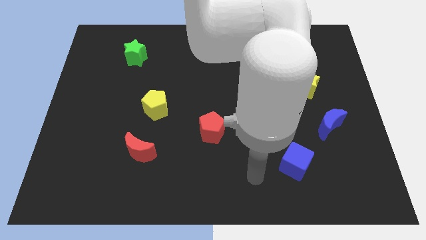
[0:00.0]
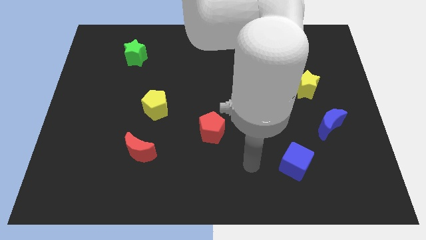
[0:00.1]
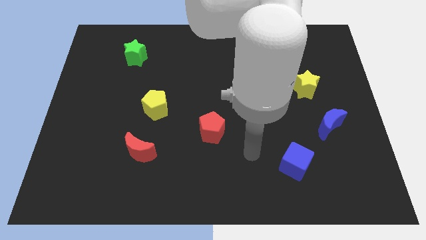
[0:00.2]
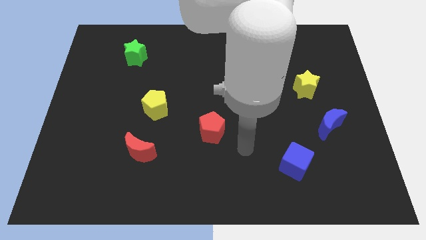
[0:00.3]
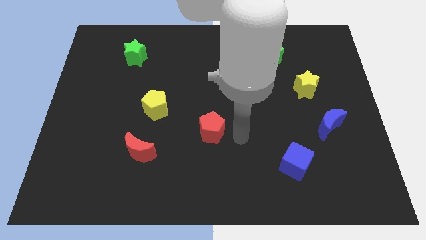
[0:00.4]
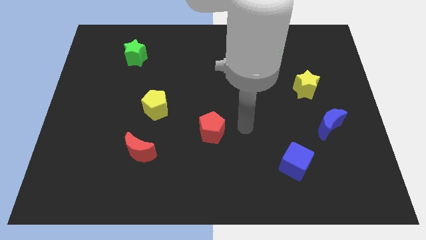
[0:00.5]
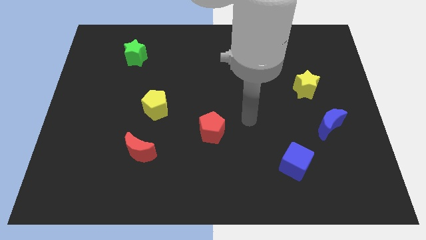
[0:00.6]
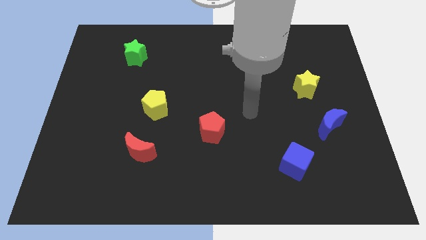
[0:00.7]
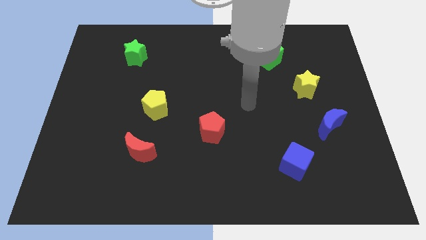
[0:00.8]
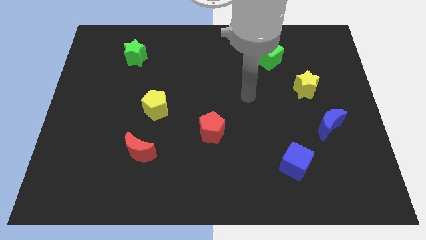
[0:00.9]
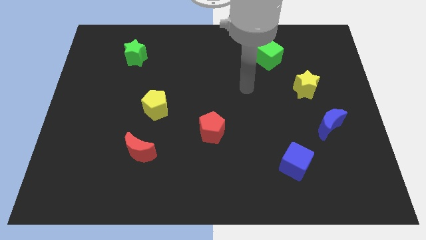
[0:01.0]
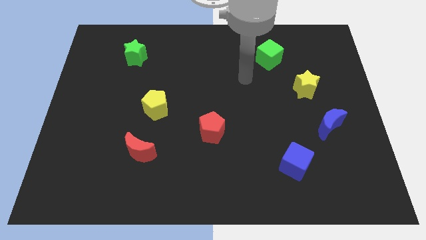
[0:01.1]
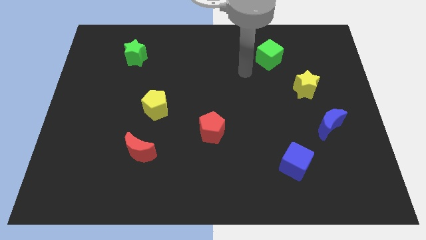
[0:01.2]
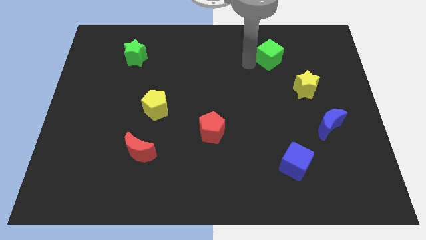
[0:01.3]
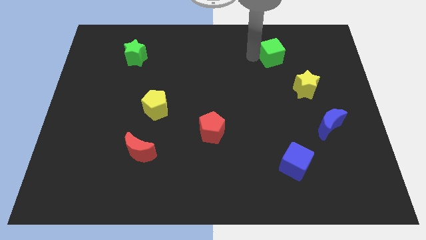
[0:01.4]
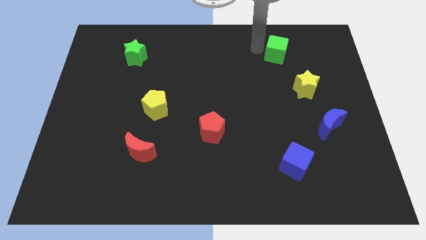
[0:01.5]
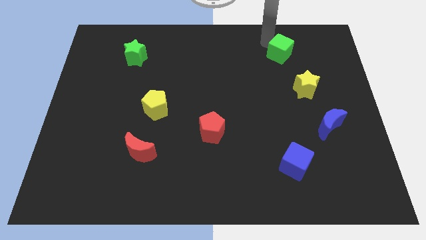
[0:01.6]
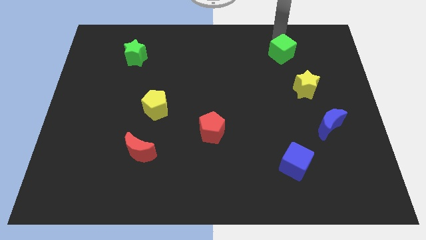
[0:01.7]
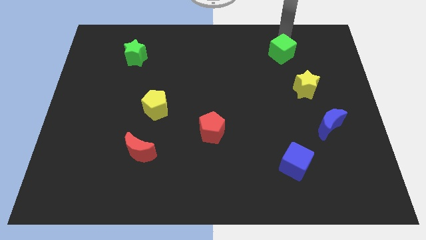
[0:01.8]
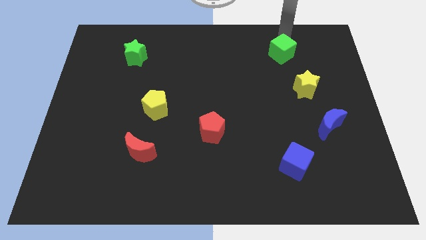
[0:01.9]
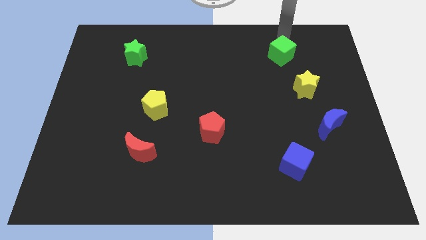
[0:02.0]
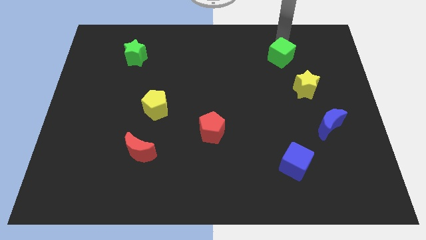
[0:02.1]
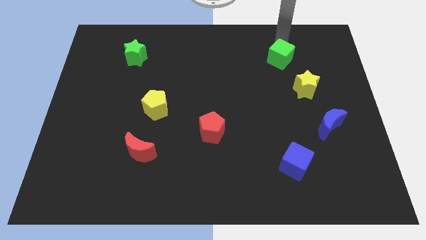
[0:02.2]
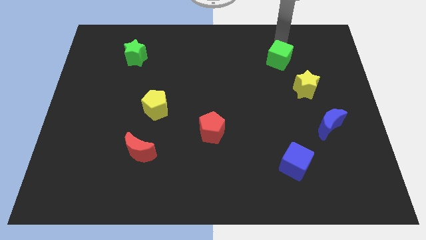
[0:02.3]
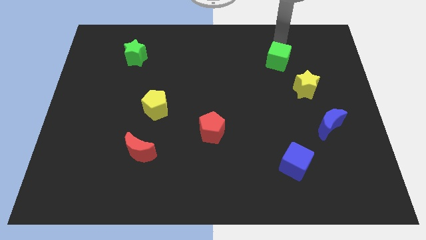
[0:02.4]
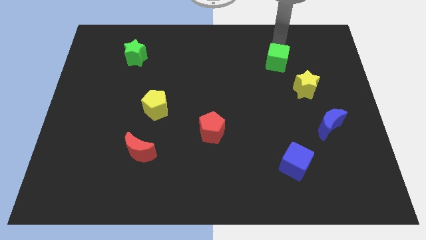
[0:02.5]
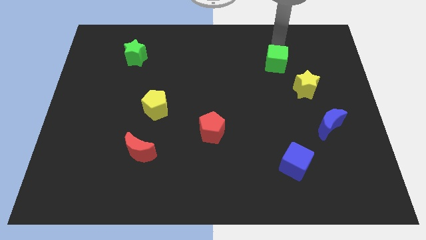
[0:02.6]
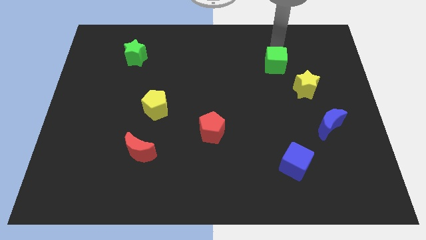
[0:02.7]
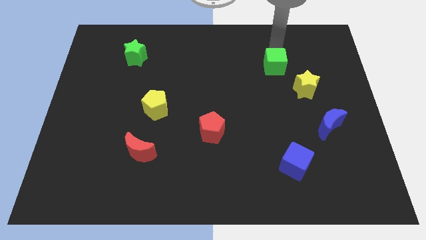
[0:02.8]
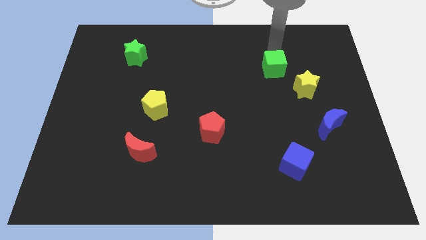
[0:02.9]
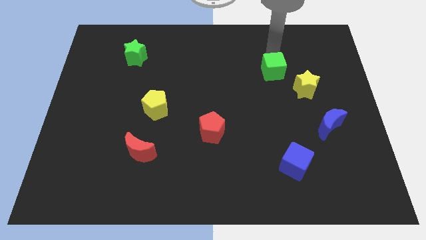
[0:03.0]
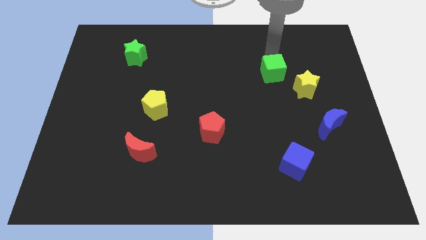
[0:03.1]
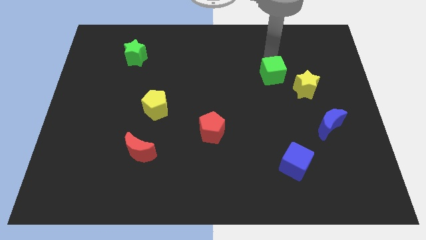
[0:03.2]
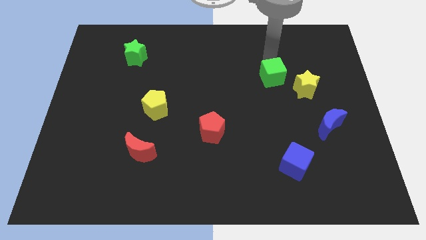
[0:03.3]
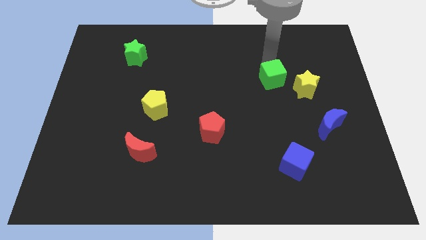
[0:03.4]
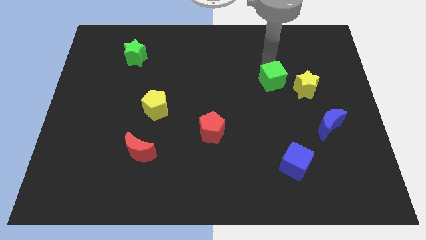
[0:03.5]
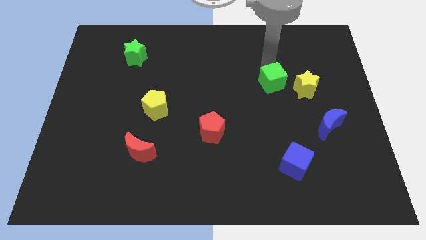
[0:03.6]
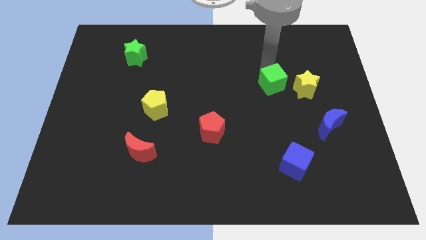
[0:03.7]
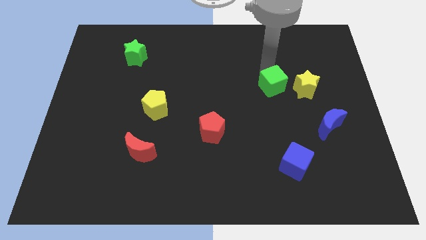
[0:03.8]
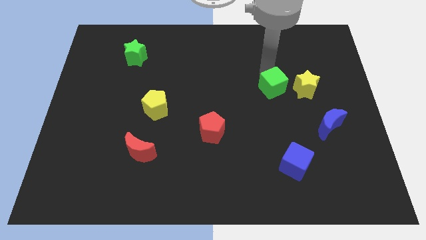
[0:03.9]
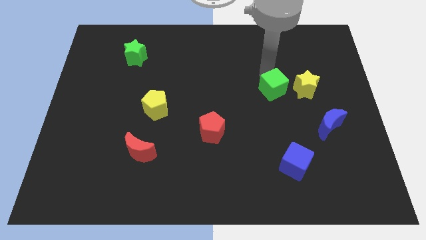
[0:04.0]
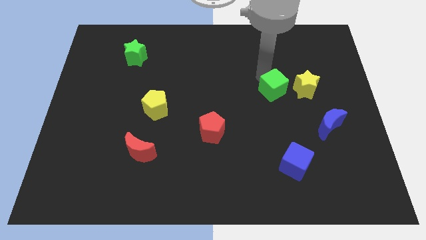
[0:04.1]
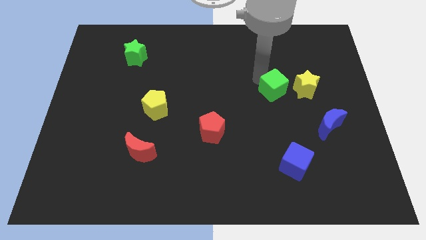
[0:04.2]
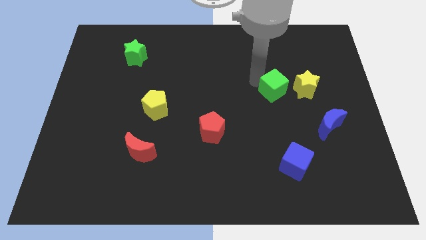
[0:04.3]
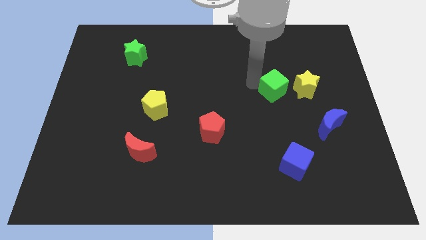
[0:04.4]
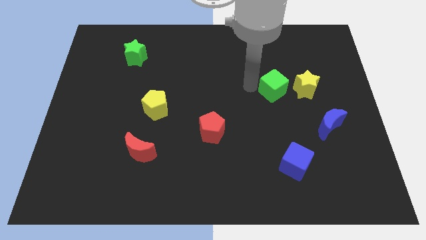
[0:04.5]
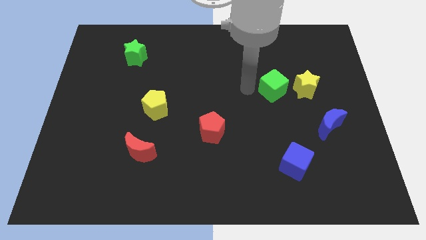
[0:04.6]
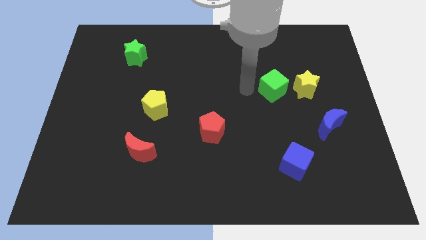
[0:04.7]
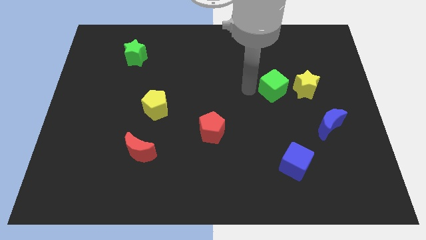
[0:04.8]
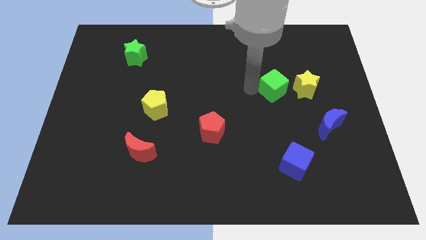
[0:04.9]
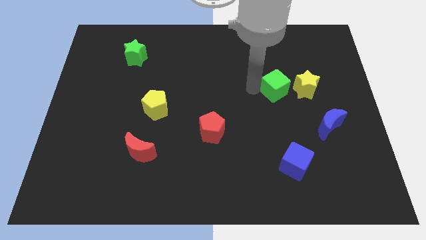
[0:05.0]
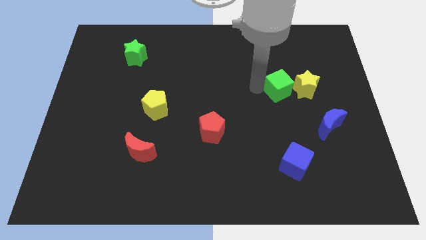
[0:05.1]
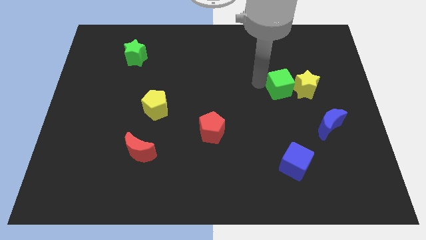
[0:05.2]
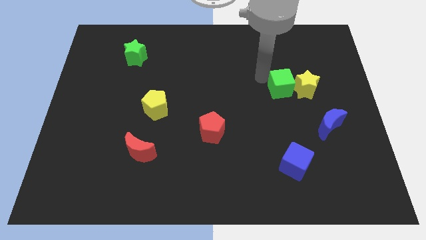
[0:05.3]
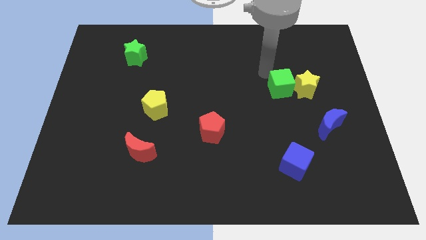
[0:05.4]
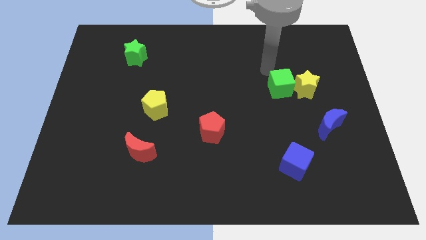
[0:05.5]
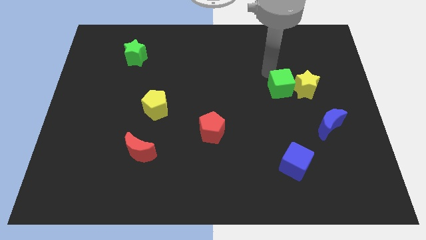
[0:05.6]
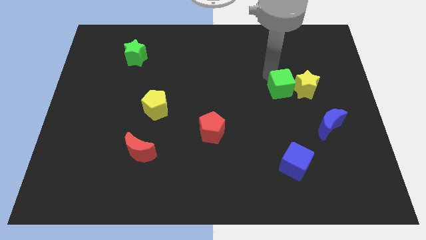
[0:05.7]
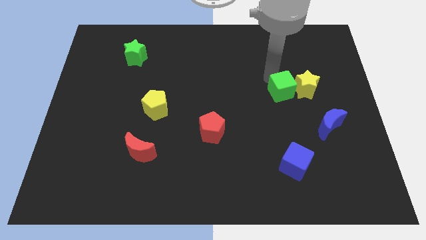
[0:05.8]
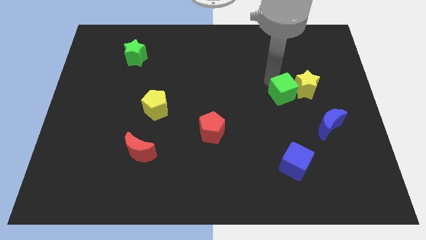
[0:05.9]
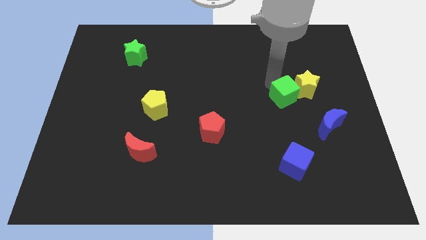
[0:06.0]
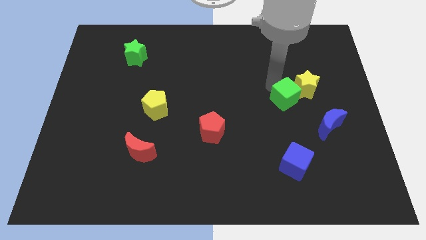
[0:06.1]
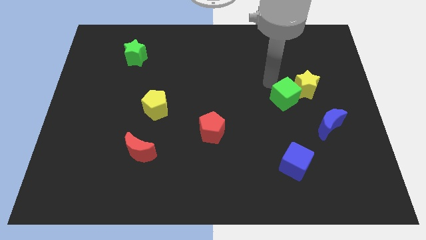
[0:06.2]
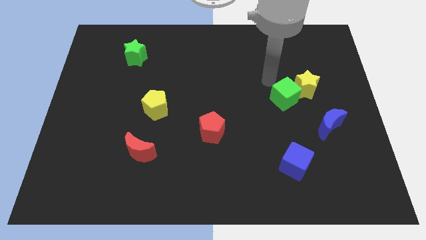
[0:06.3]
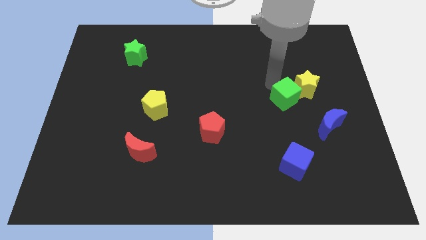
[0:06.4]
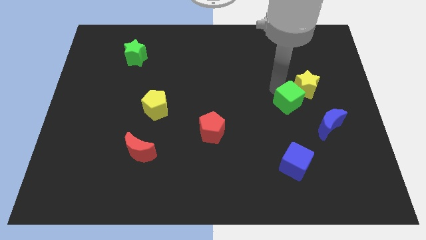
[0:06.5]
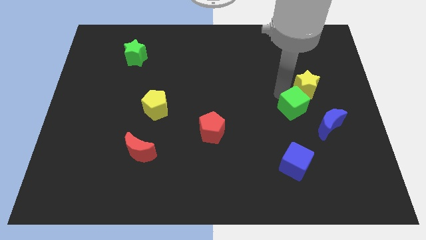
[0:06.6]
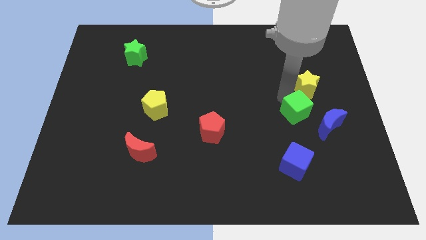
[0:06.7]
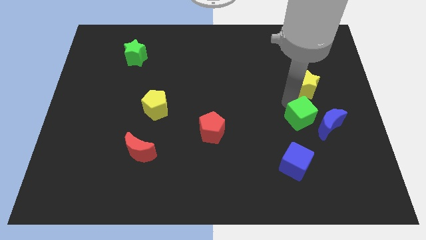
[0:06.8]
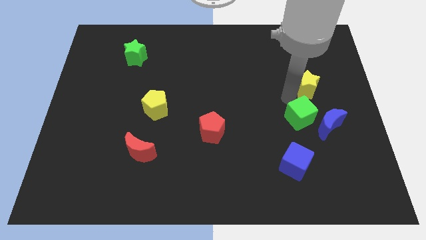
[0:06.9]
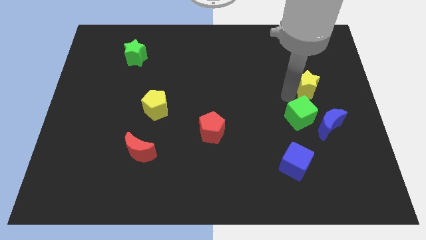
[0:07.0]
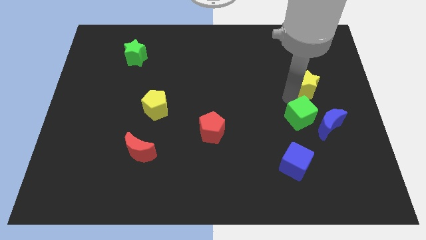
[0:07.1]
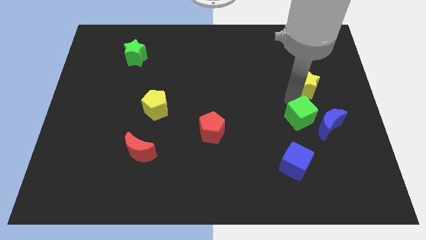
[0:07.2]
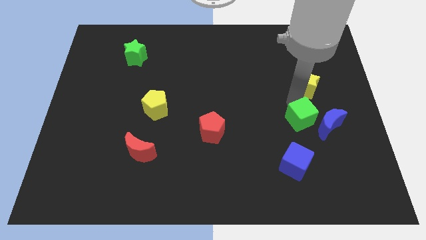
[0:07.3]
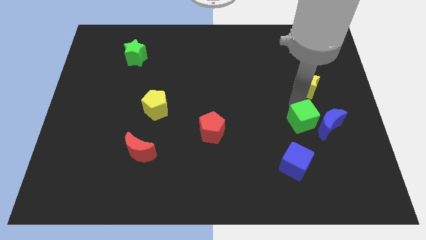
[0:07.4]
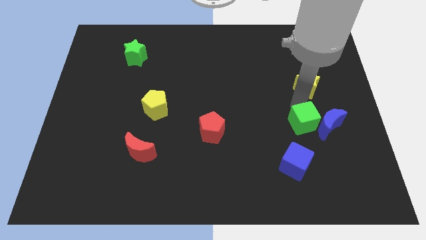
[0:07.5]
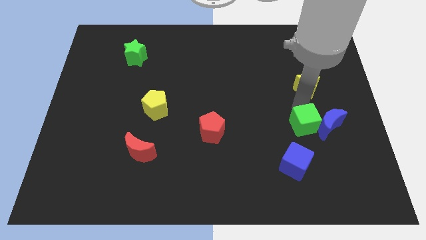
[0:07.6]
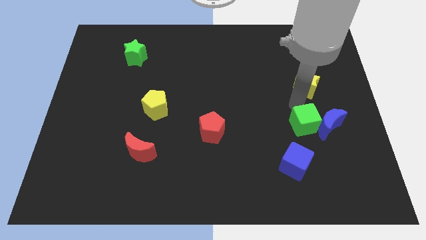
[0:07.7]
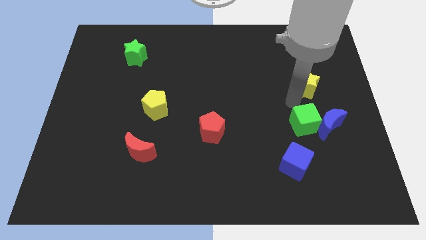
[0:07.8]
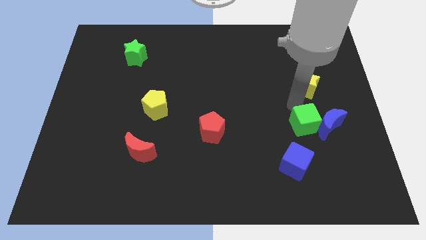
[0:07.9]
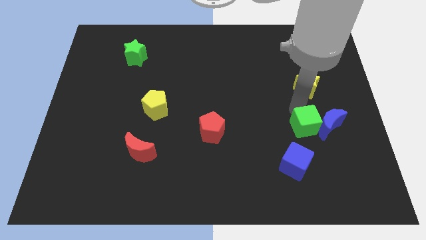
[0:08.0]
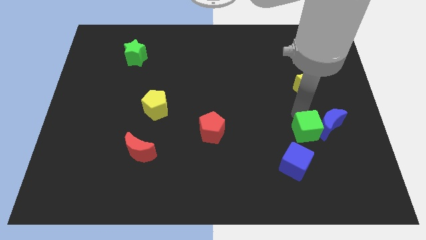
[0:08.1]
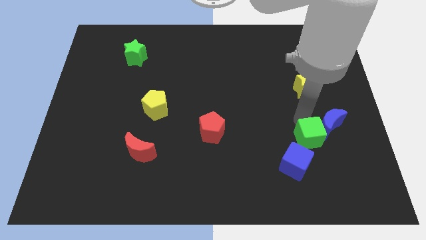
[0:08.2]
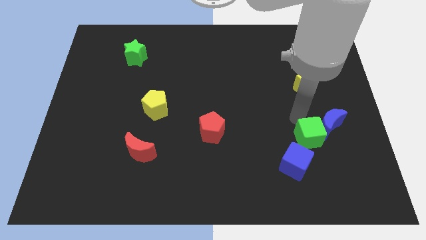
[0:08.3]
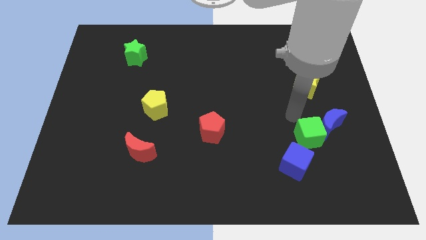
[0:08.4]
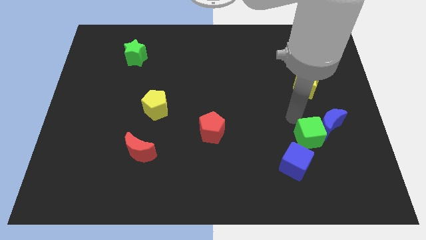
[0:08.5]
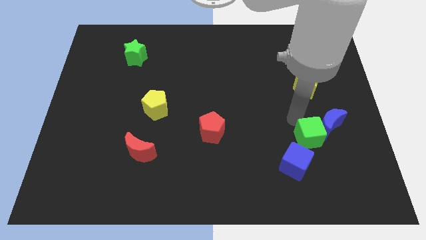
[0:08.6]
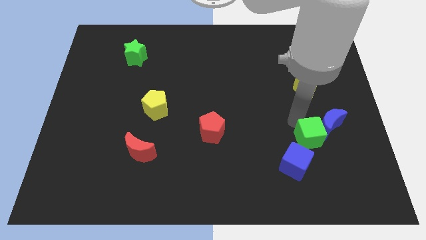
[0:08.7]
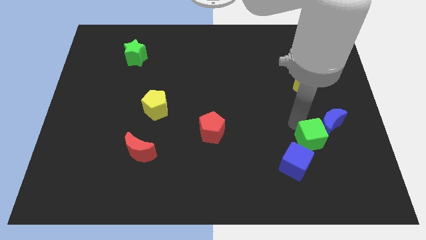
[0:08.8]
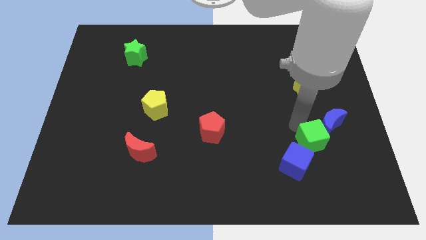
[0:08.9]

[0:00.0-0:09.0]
push the green cube to the bottom side of the blue moon
